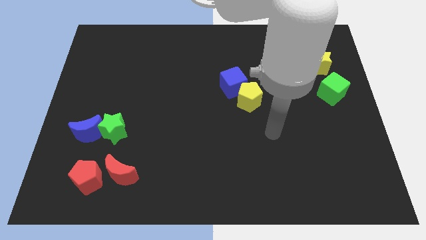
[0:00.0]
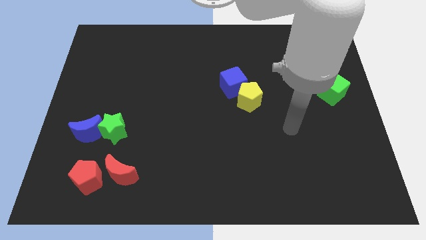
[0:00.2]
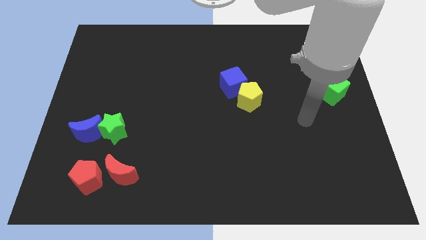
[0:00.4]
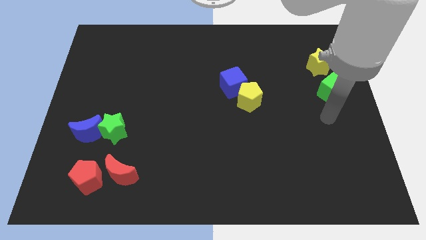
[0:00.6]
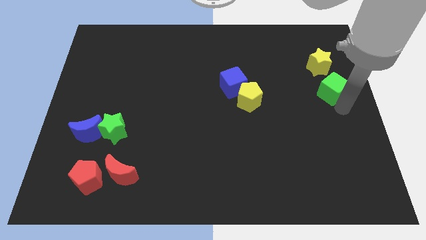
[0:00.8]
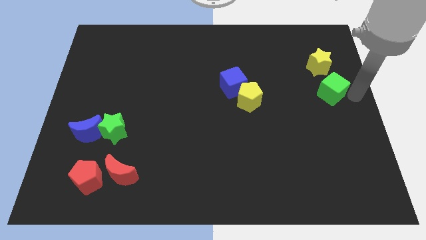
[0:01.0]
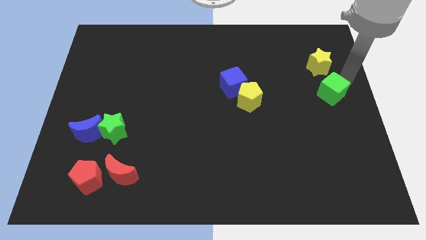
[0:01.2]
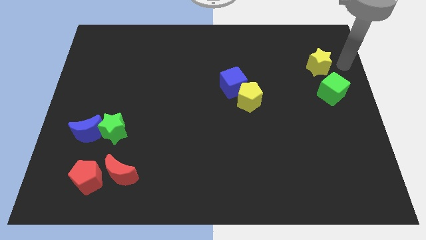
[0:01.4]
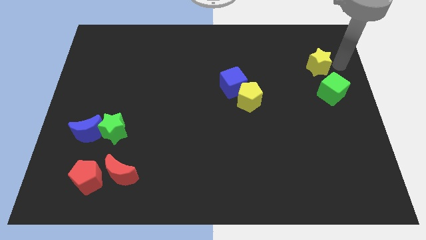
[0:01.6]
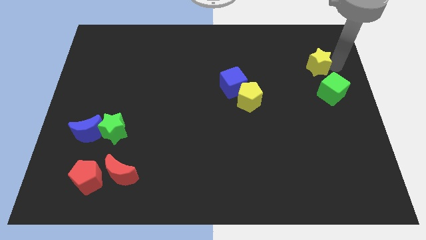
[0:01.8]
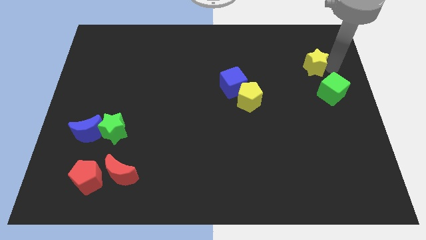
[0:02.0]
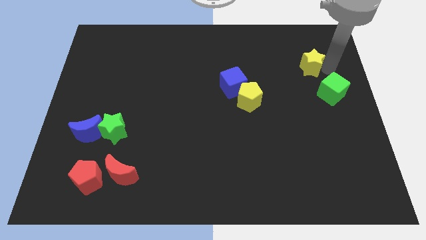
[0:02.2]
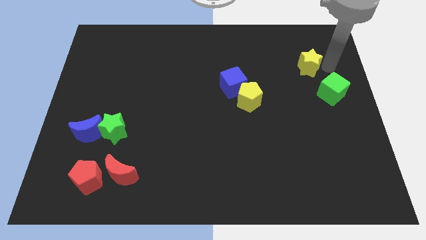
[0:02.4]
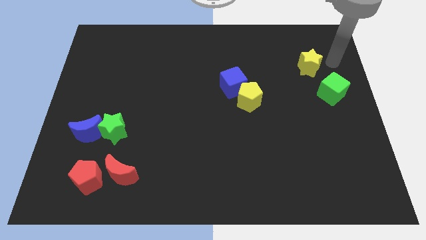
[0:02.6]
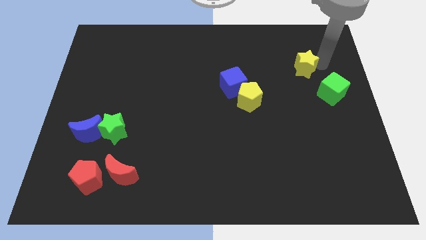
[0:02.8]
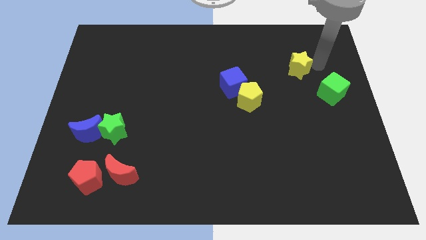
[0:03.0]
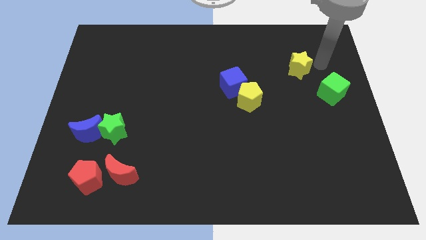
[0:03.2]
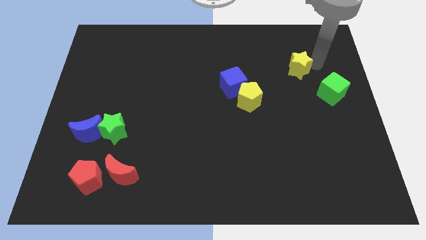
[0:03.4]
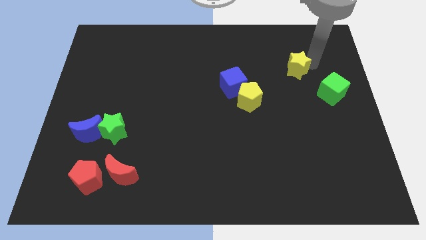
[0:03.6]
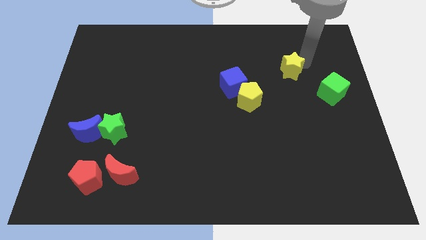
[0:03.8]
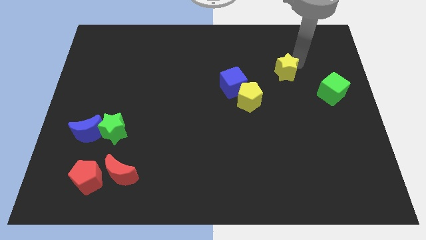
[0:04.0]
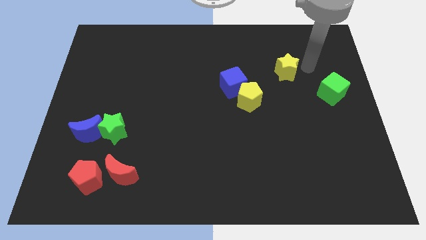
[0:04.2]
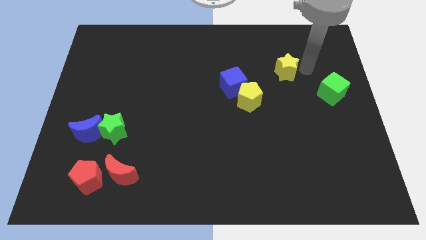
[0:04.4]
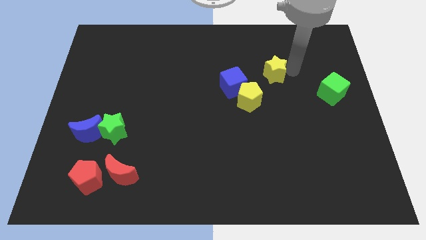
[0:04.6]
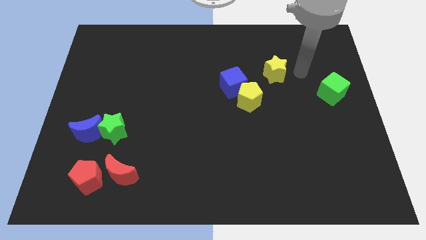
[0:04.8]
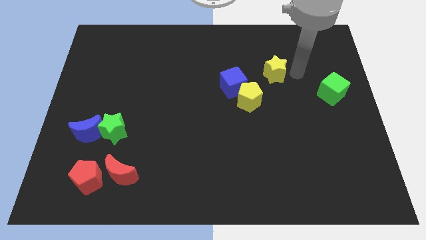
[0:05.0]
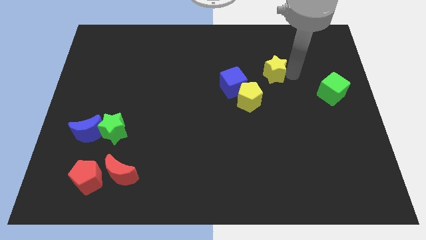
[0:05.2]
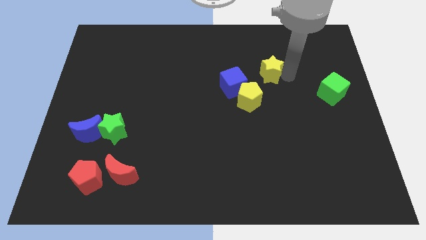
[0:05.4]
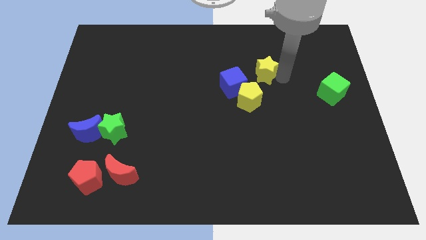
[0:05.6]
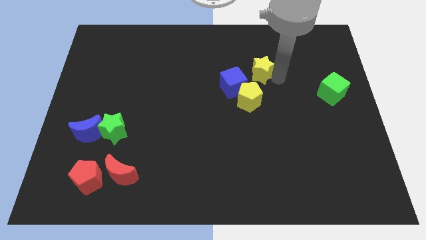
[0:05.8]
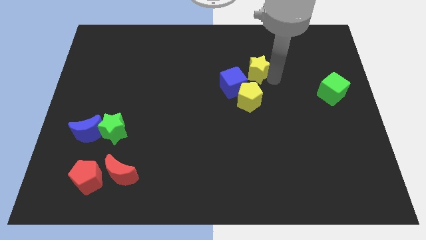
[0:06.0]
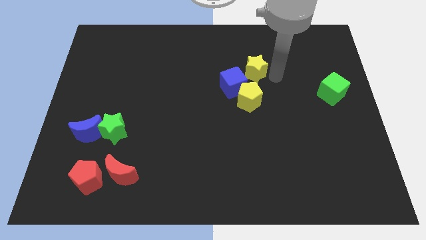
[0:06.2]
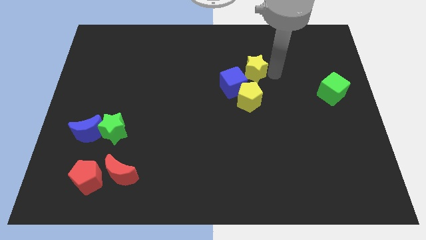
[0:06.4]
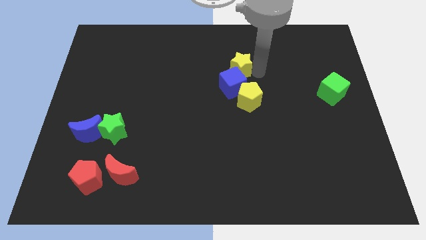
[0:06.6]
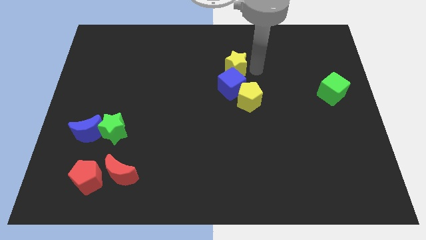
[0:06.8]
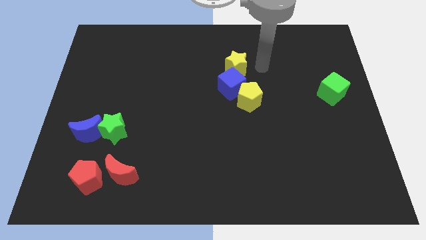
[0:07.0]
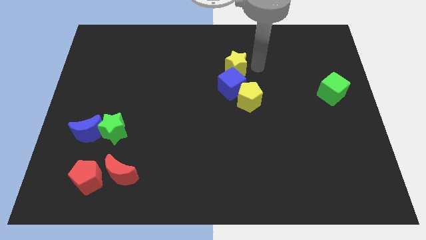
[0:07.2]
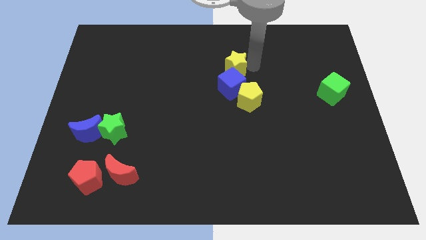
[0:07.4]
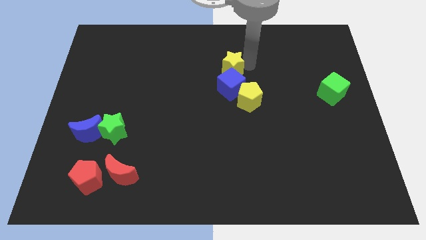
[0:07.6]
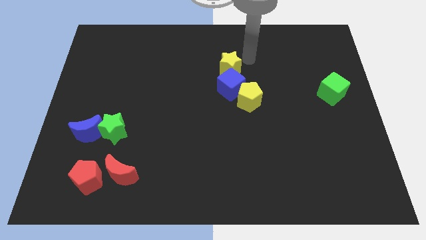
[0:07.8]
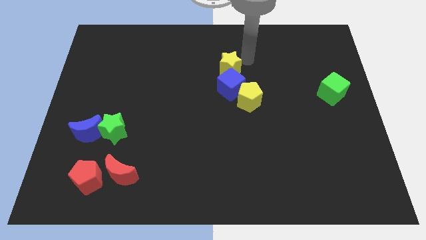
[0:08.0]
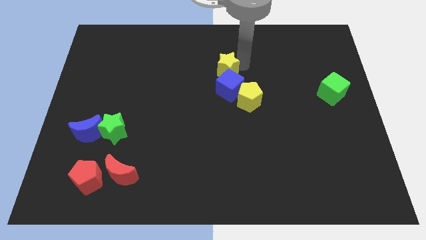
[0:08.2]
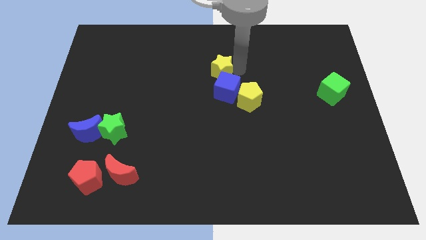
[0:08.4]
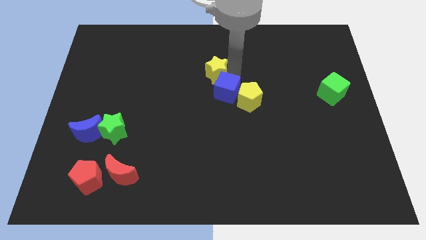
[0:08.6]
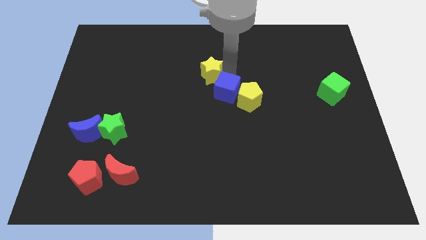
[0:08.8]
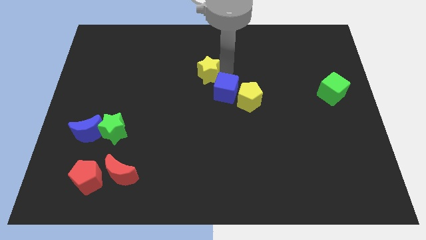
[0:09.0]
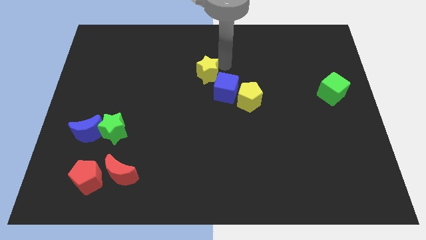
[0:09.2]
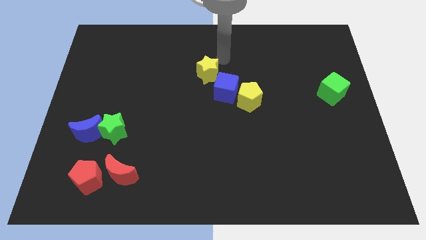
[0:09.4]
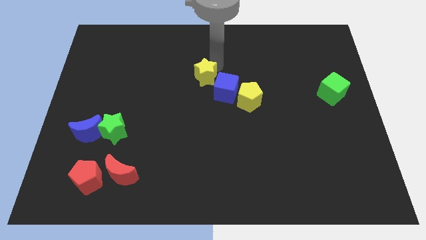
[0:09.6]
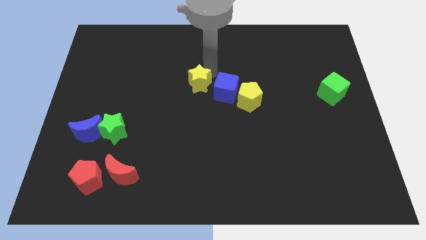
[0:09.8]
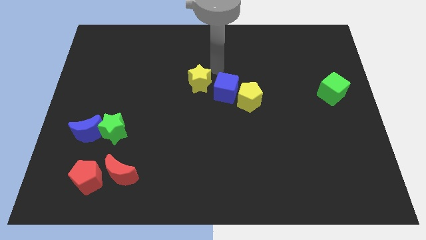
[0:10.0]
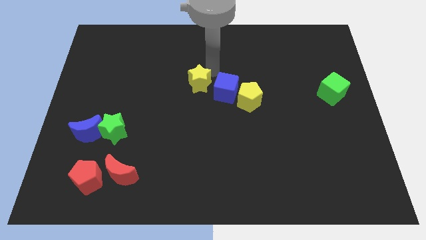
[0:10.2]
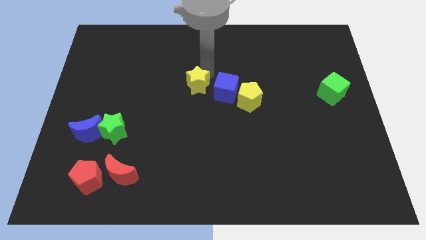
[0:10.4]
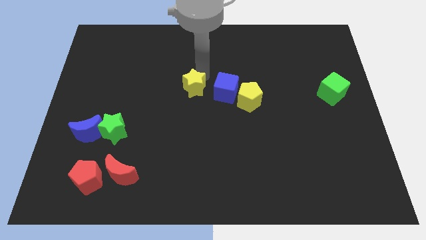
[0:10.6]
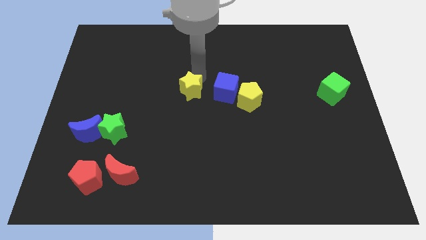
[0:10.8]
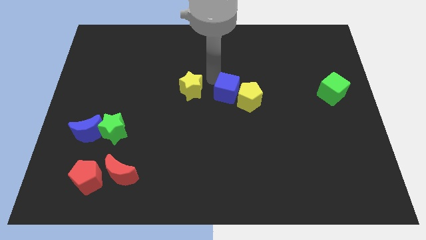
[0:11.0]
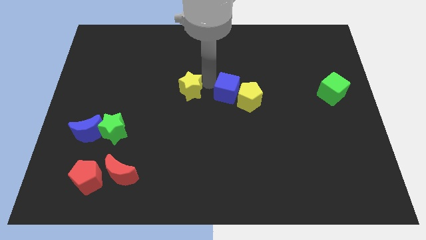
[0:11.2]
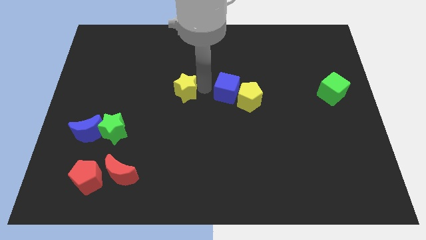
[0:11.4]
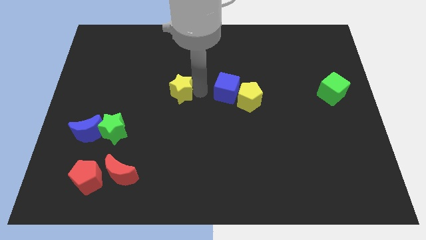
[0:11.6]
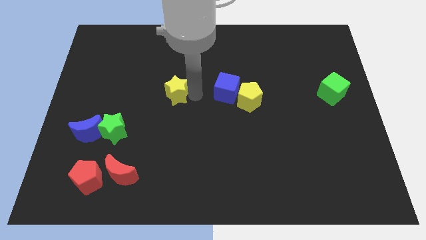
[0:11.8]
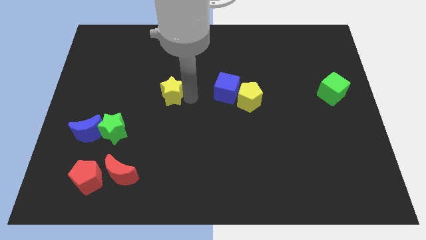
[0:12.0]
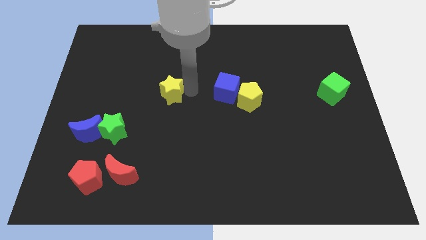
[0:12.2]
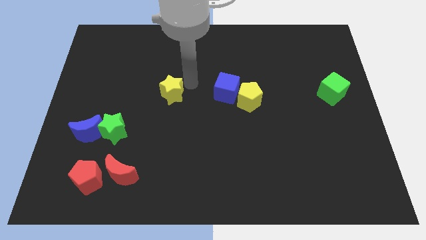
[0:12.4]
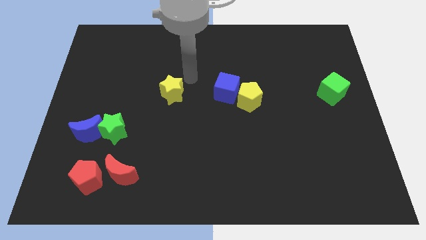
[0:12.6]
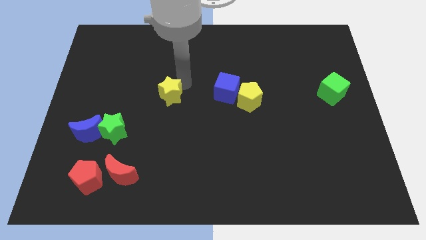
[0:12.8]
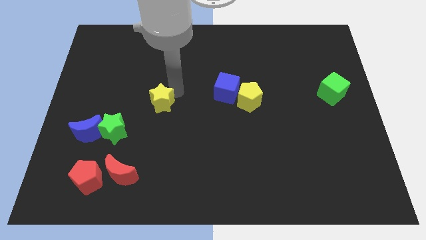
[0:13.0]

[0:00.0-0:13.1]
push the yellow star diagonally up and to the right of the green star
